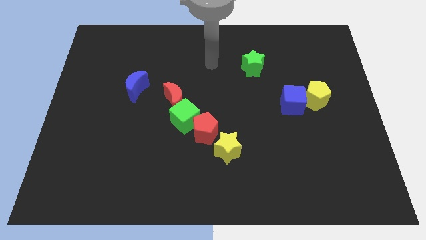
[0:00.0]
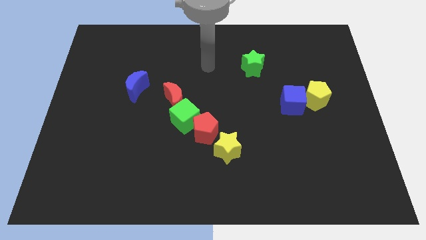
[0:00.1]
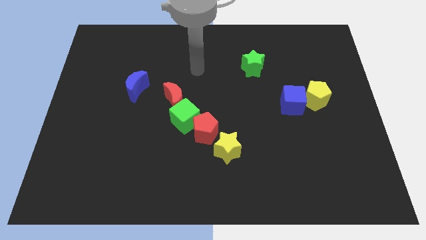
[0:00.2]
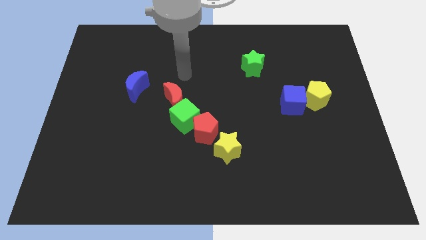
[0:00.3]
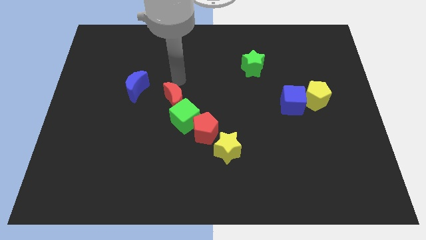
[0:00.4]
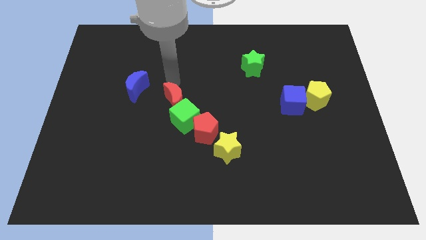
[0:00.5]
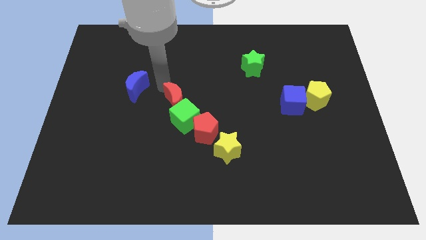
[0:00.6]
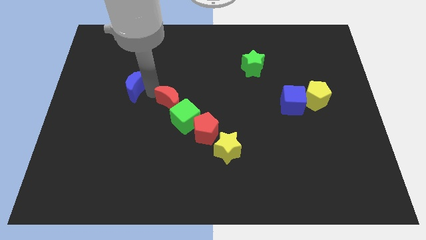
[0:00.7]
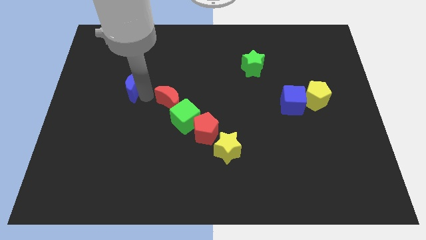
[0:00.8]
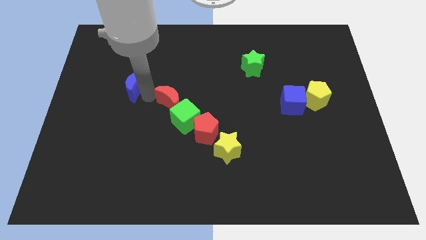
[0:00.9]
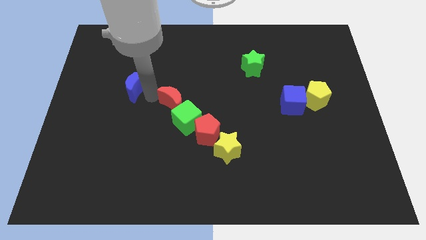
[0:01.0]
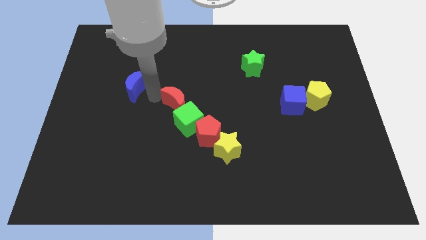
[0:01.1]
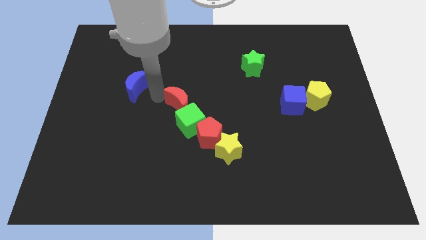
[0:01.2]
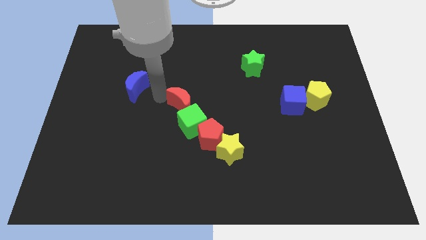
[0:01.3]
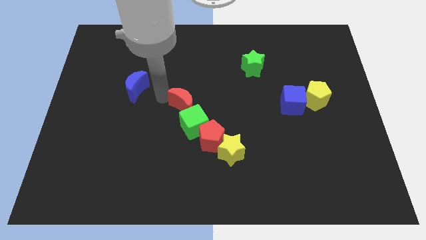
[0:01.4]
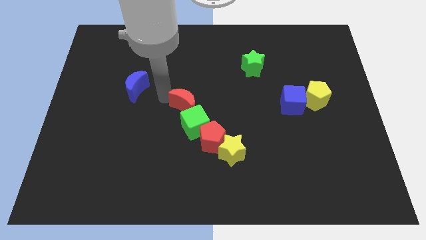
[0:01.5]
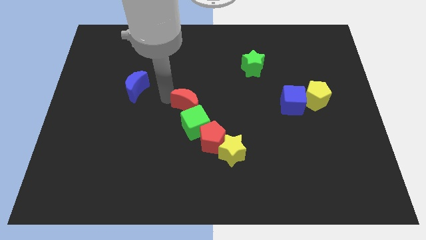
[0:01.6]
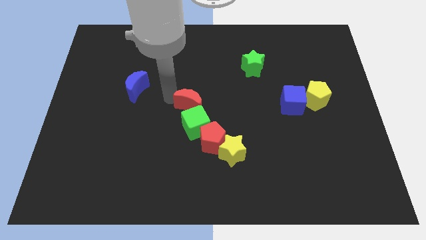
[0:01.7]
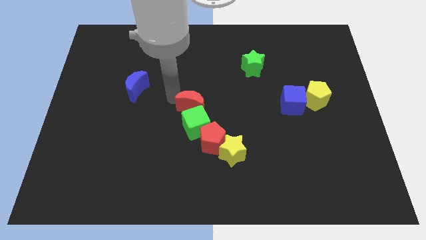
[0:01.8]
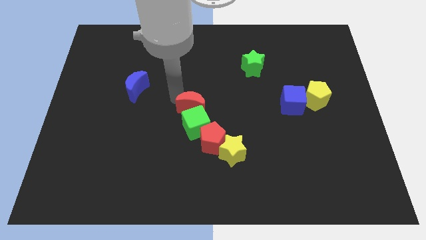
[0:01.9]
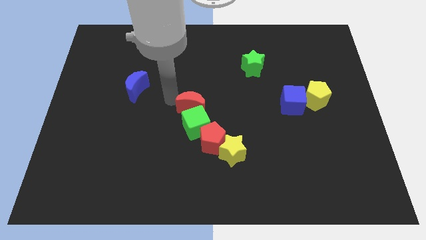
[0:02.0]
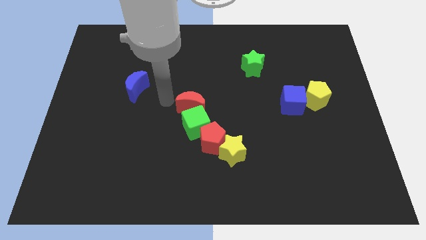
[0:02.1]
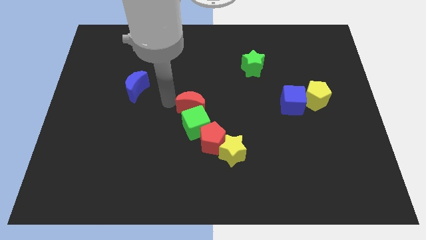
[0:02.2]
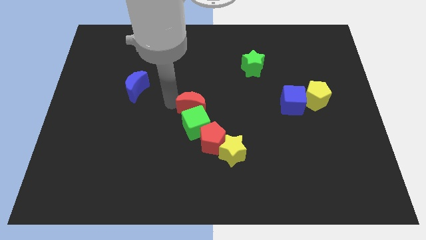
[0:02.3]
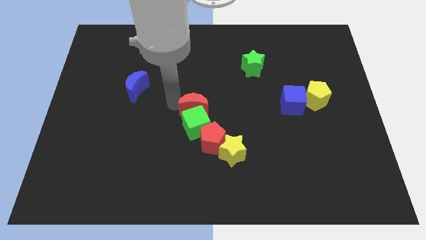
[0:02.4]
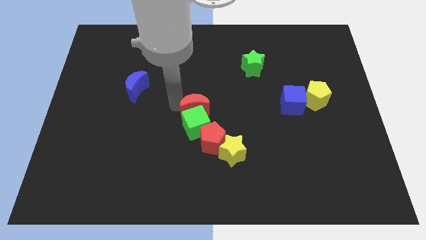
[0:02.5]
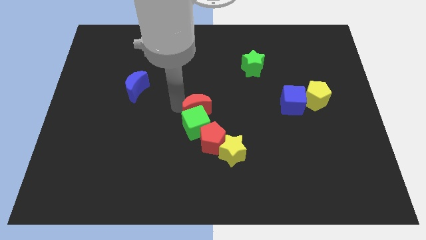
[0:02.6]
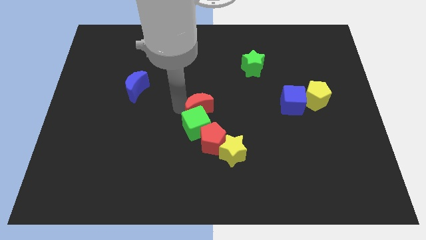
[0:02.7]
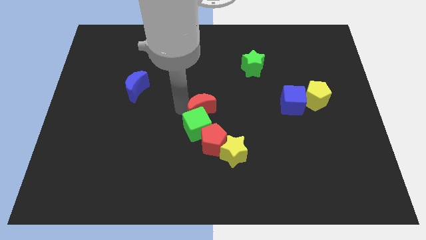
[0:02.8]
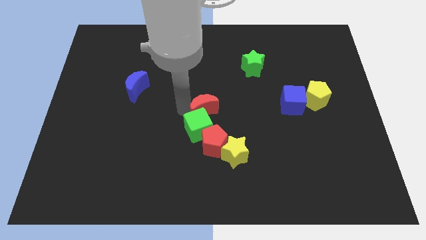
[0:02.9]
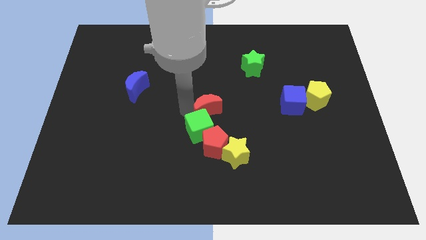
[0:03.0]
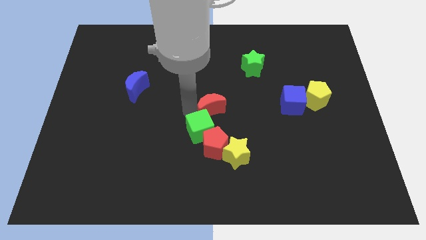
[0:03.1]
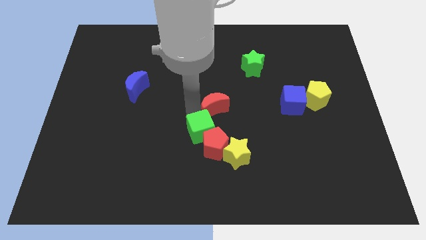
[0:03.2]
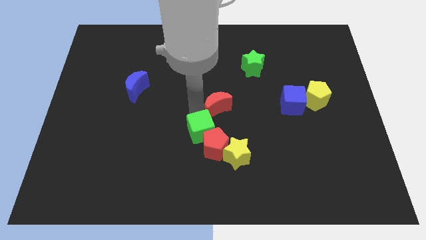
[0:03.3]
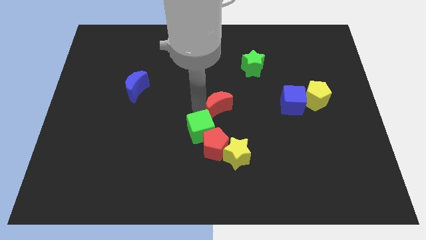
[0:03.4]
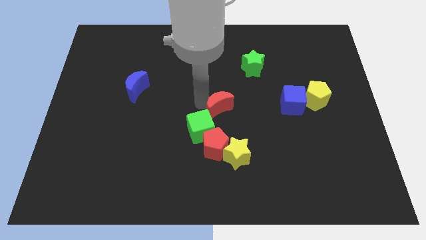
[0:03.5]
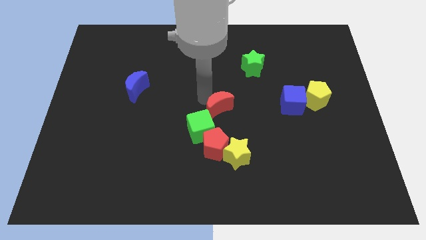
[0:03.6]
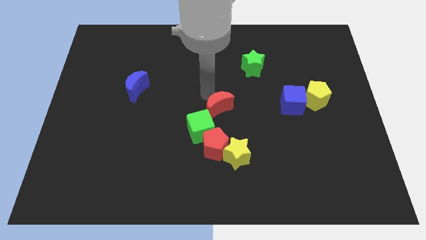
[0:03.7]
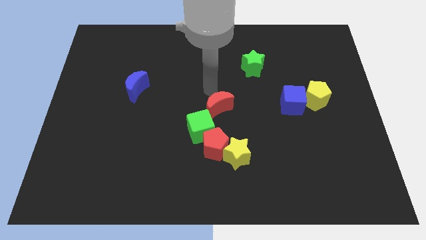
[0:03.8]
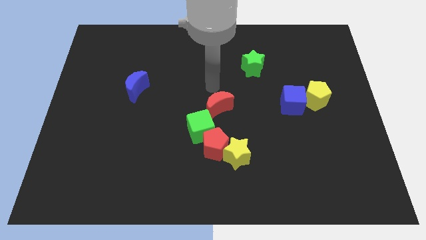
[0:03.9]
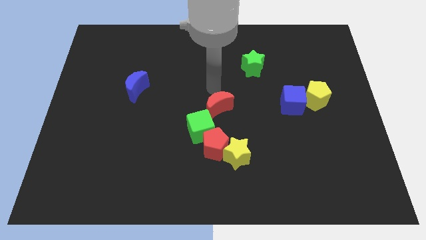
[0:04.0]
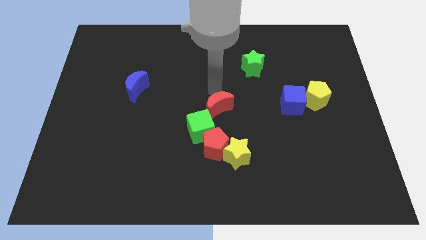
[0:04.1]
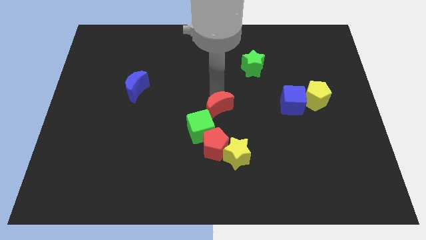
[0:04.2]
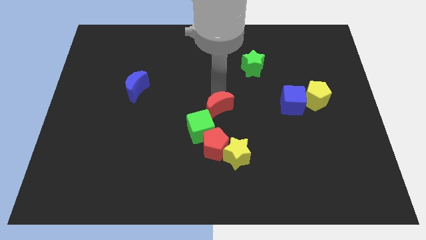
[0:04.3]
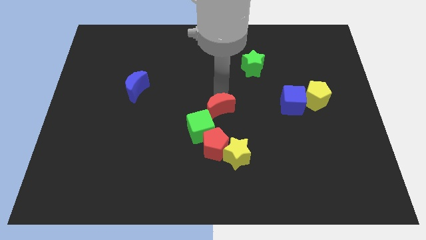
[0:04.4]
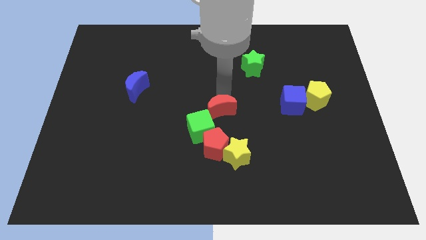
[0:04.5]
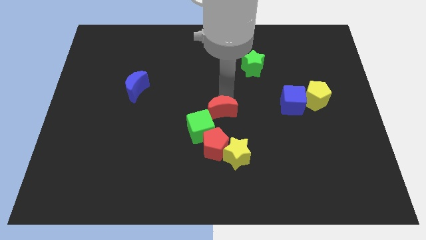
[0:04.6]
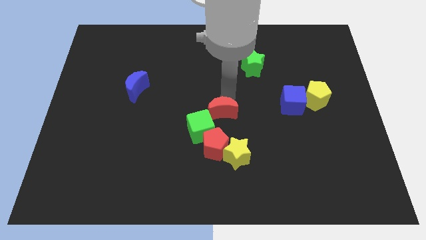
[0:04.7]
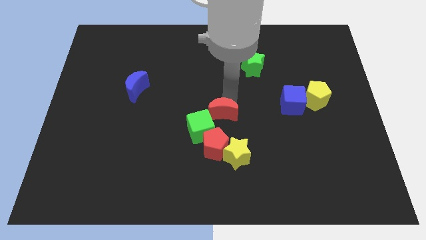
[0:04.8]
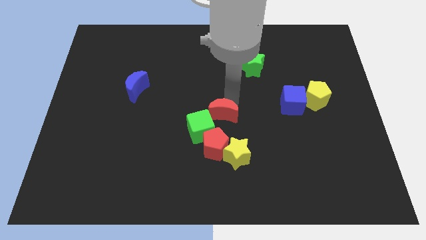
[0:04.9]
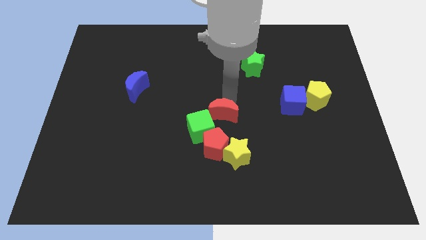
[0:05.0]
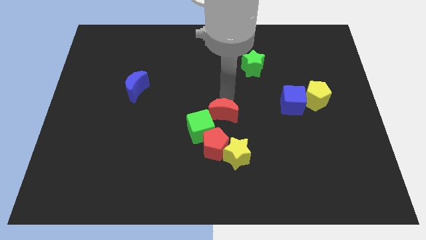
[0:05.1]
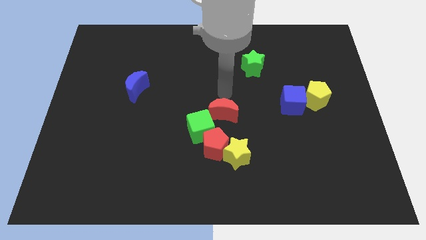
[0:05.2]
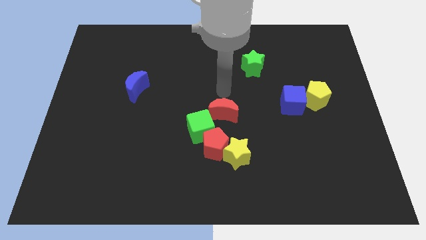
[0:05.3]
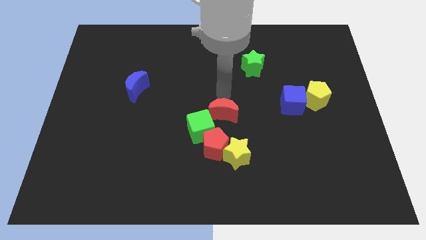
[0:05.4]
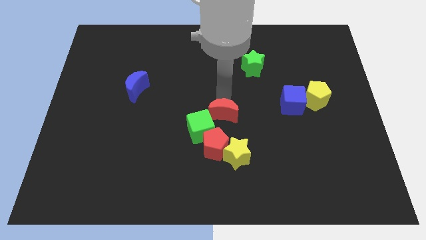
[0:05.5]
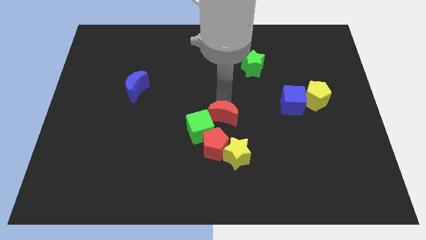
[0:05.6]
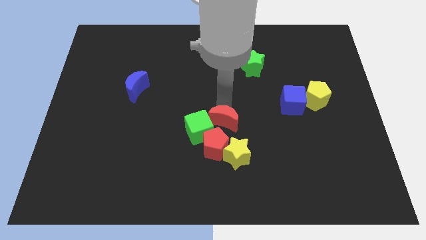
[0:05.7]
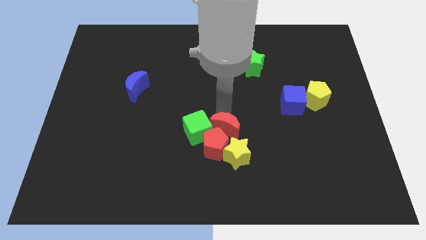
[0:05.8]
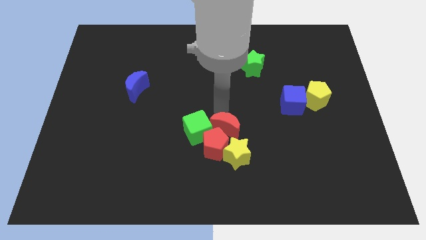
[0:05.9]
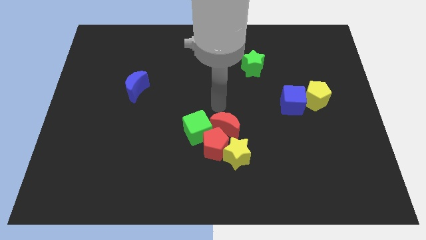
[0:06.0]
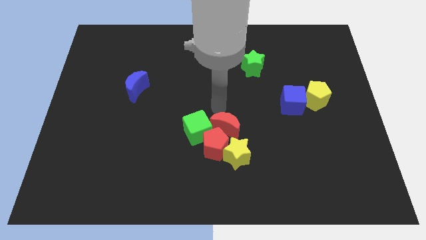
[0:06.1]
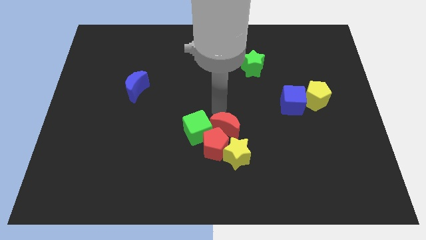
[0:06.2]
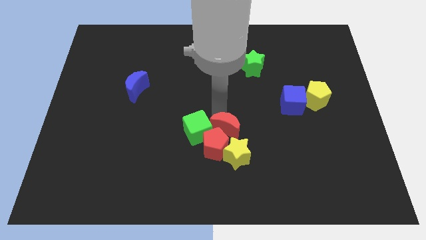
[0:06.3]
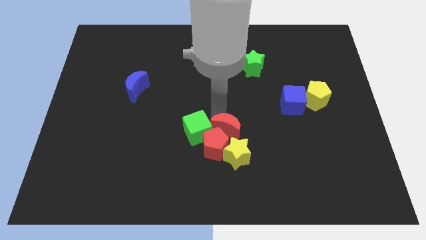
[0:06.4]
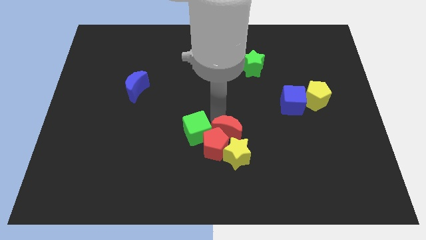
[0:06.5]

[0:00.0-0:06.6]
move the red moon towards the yellow star

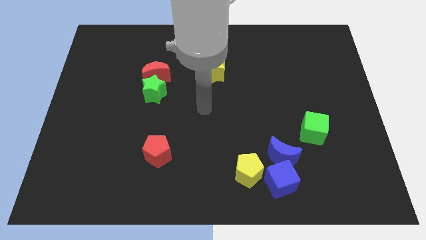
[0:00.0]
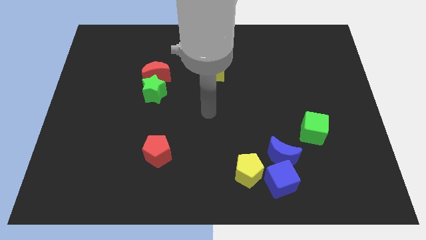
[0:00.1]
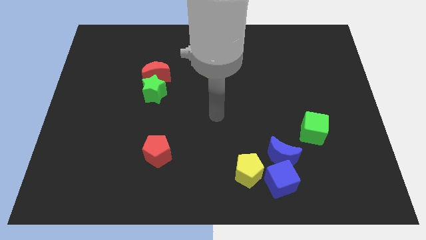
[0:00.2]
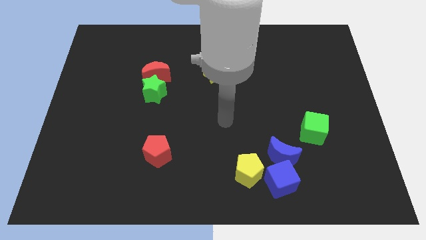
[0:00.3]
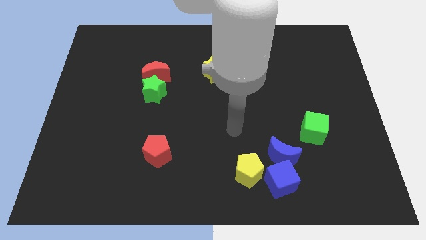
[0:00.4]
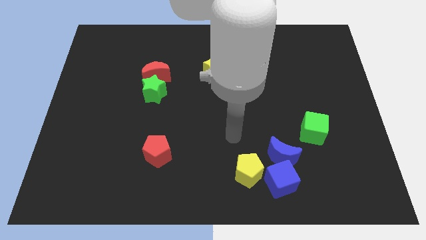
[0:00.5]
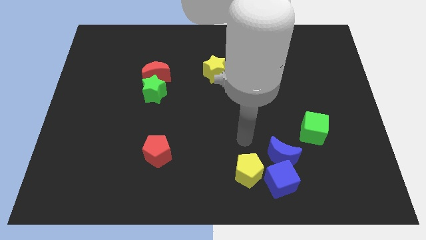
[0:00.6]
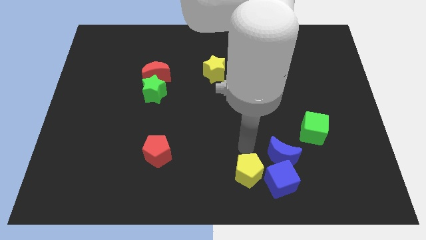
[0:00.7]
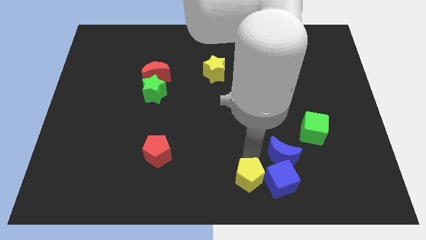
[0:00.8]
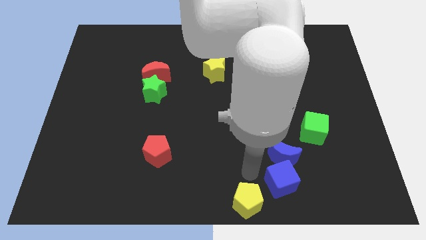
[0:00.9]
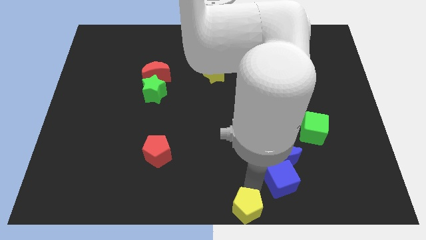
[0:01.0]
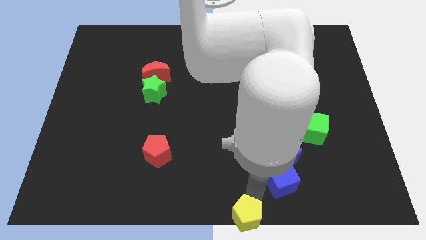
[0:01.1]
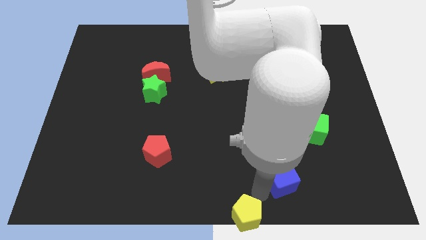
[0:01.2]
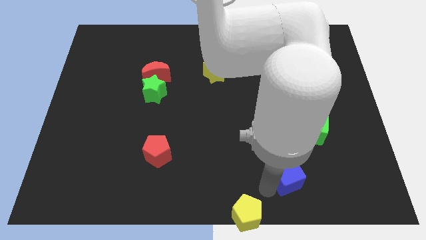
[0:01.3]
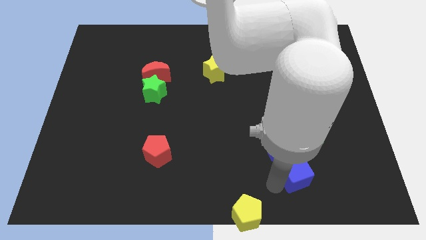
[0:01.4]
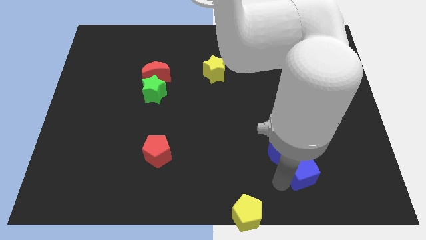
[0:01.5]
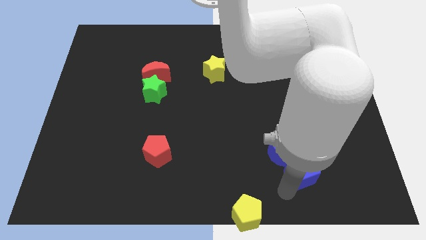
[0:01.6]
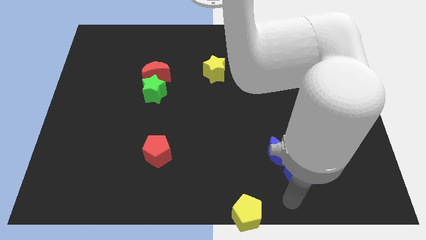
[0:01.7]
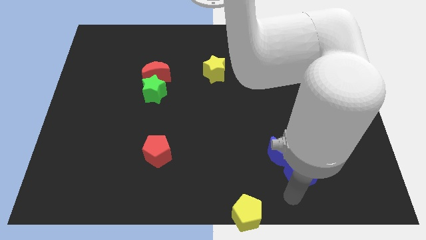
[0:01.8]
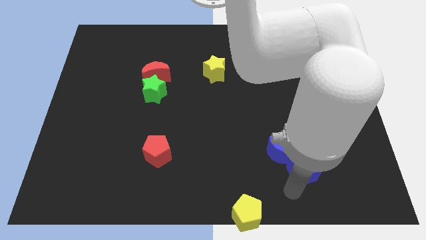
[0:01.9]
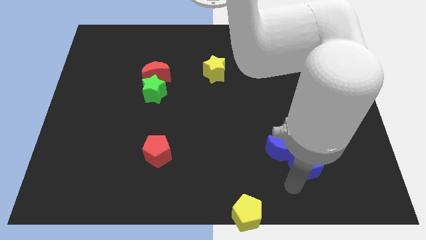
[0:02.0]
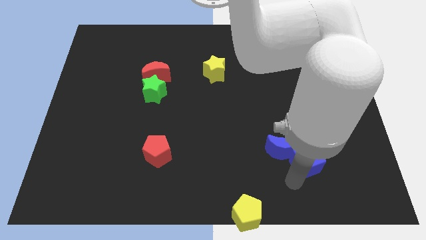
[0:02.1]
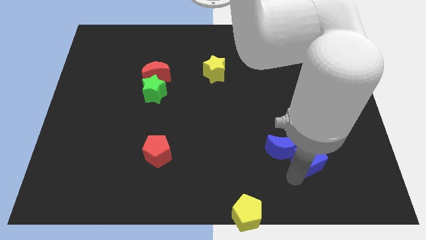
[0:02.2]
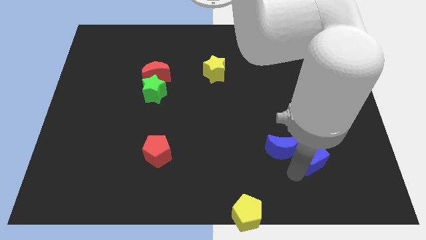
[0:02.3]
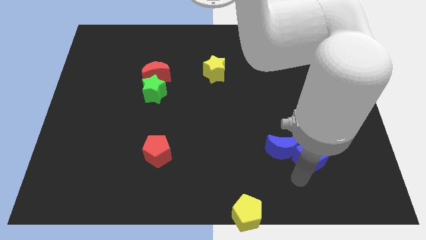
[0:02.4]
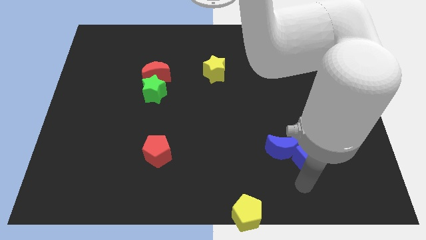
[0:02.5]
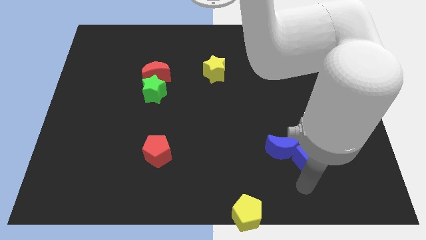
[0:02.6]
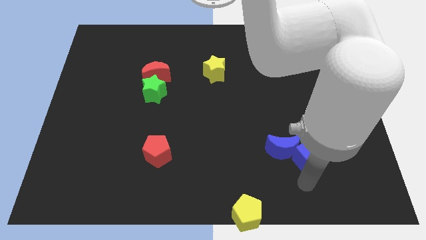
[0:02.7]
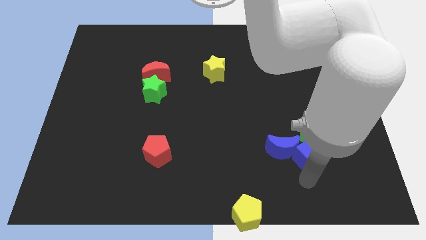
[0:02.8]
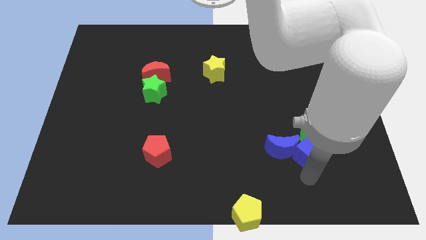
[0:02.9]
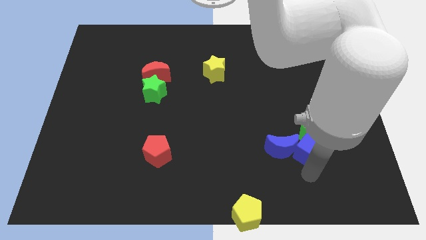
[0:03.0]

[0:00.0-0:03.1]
put the blue cube towards the green cube
